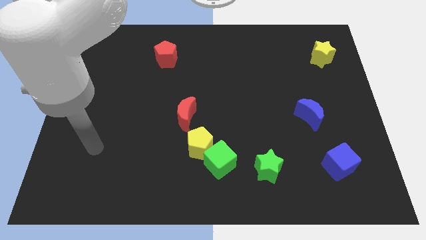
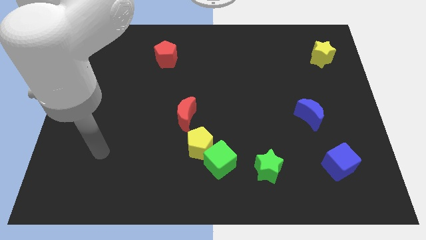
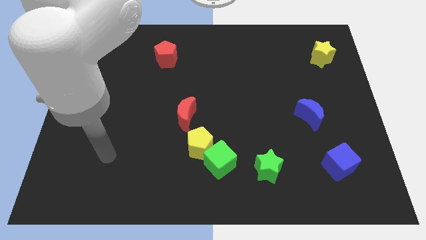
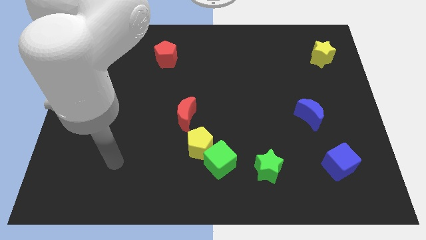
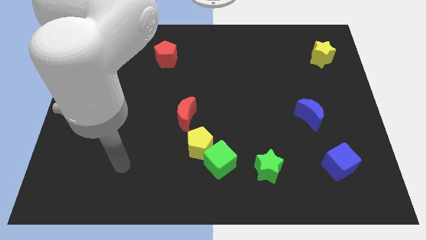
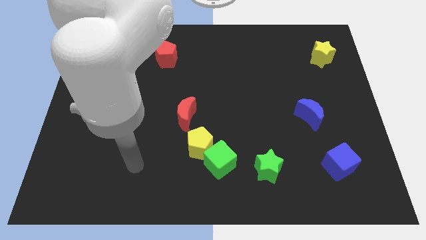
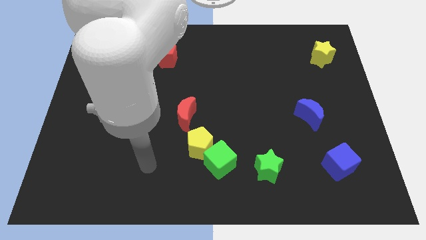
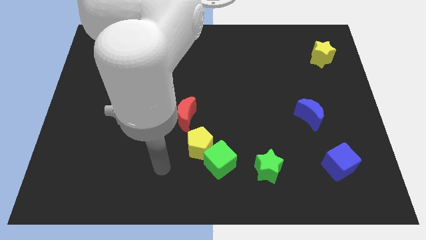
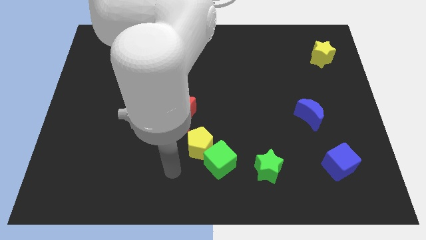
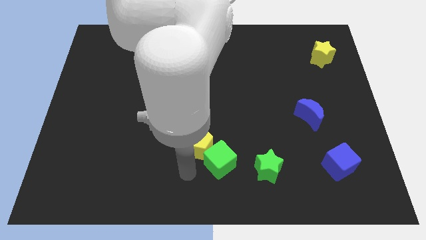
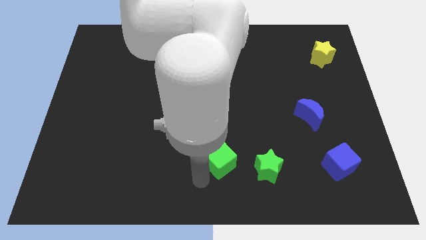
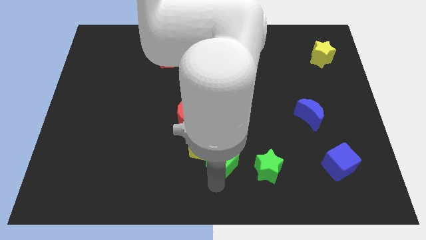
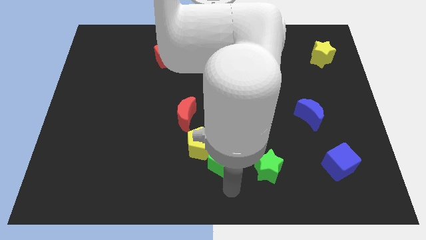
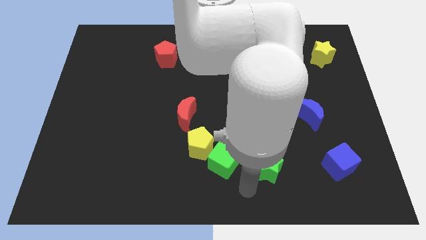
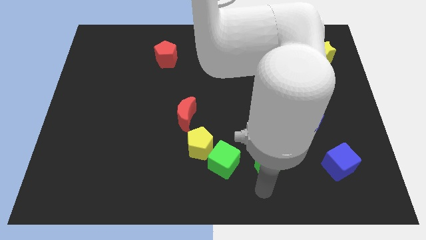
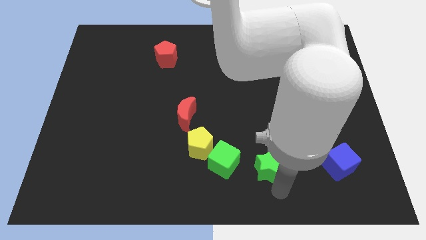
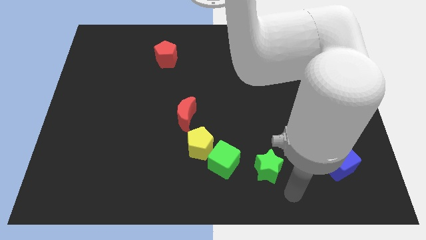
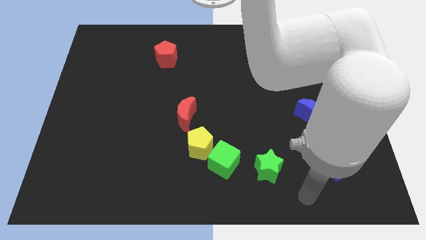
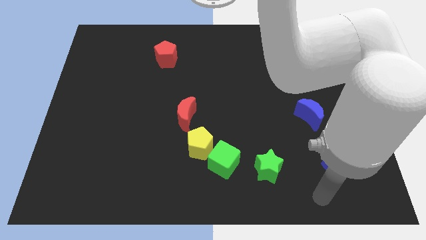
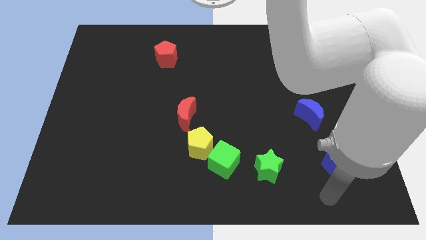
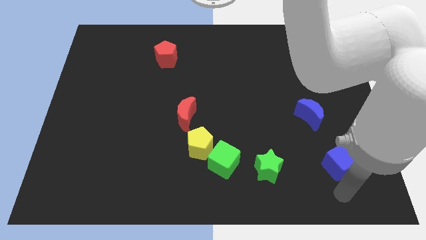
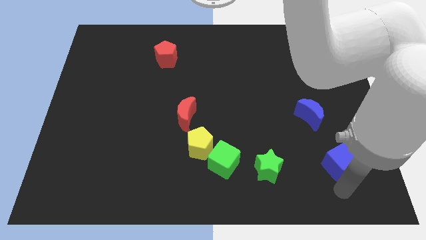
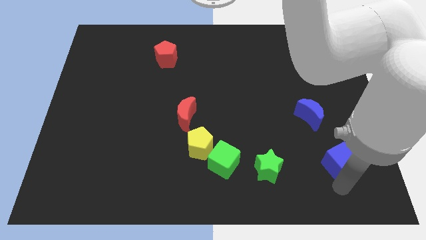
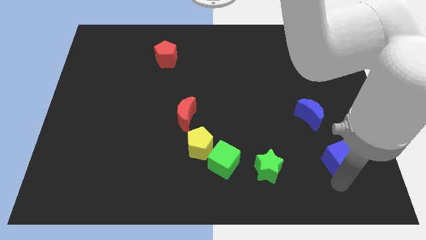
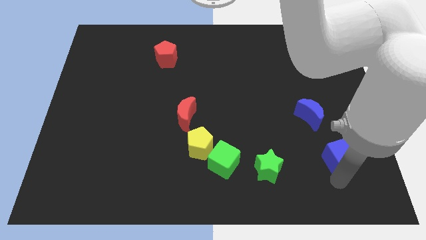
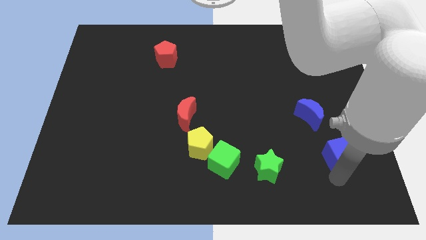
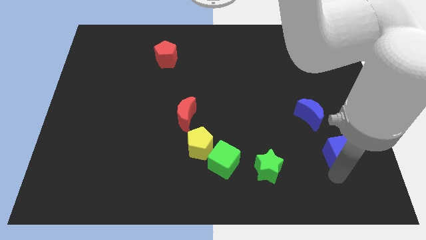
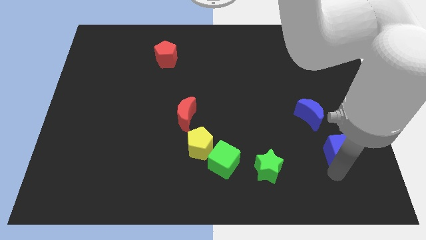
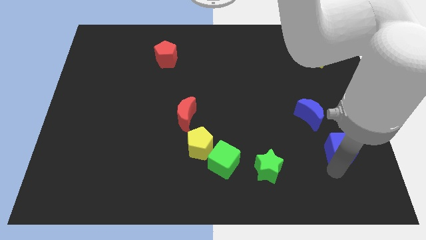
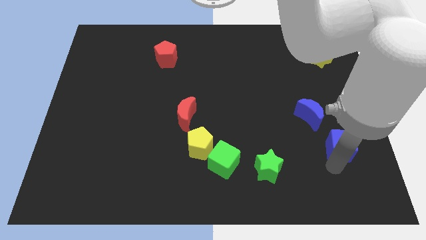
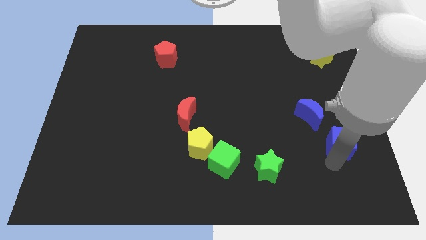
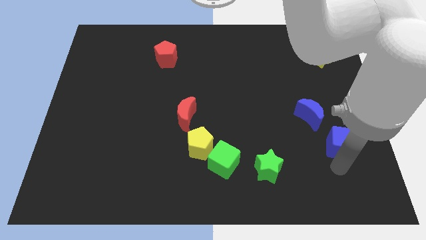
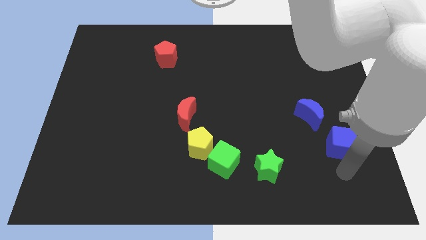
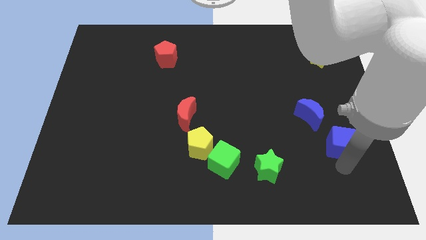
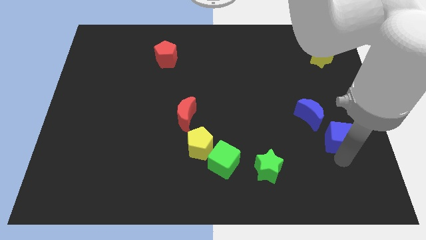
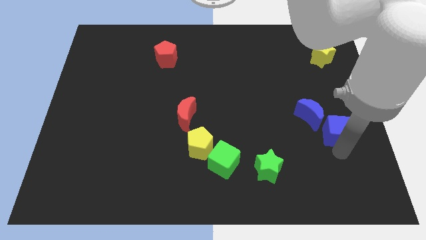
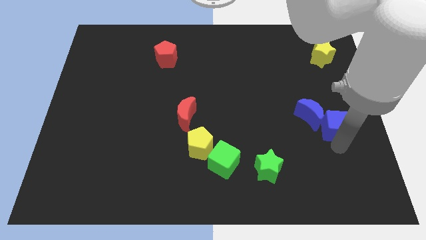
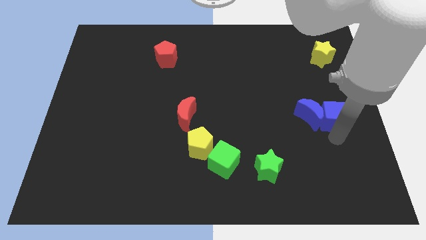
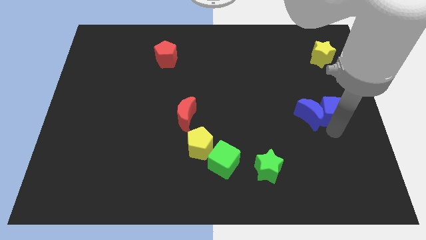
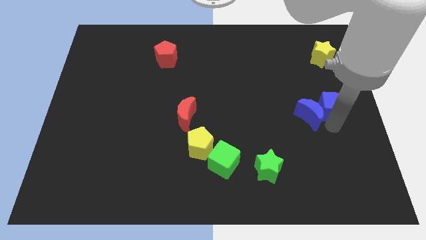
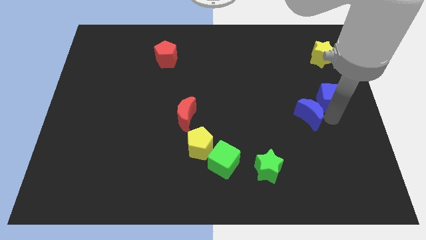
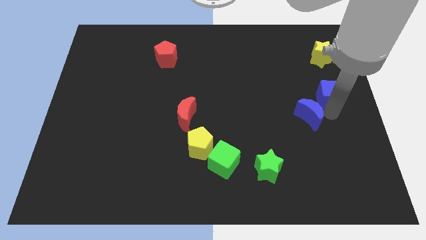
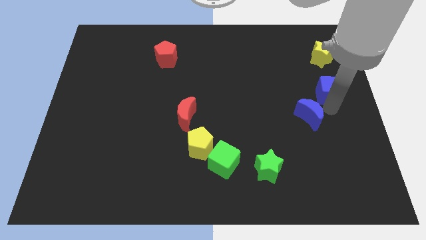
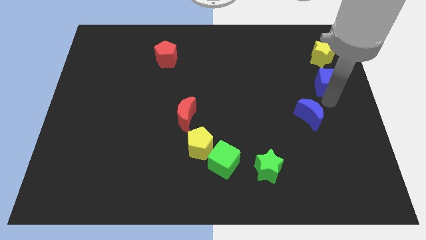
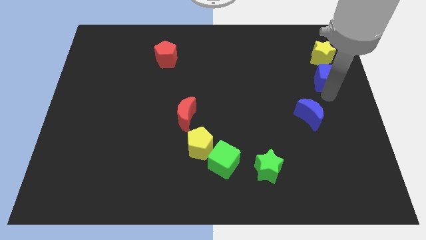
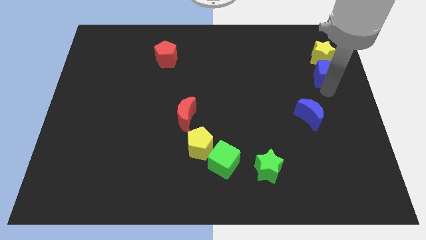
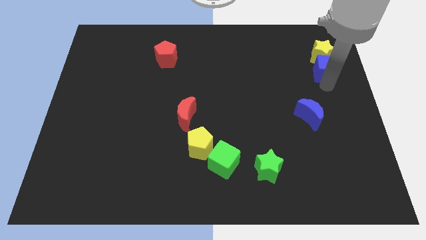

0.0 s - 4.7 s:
put the blue cube next to the yellow star

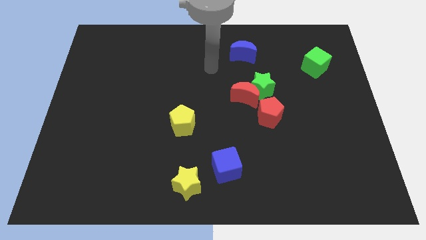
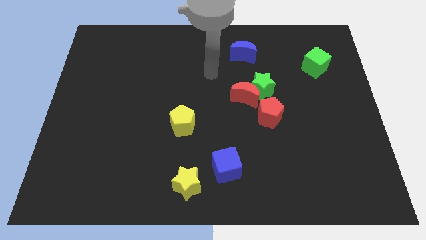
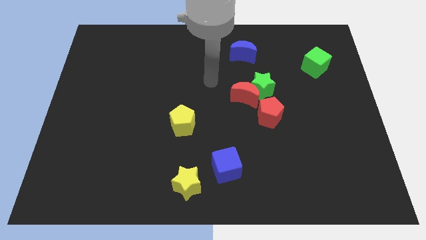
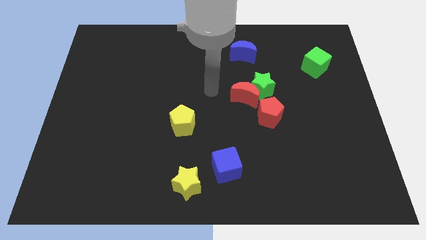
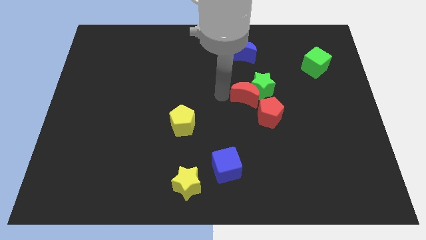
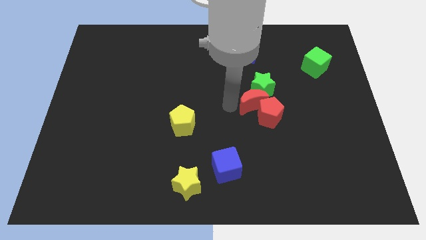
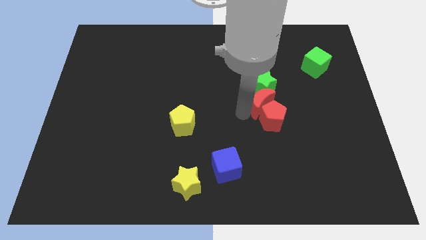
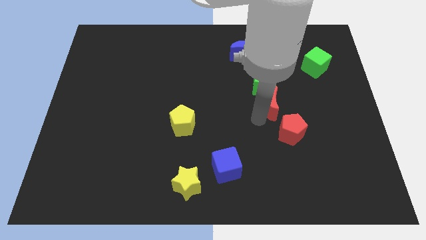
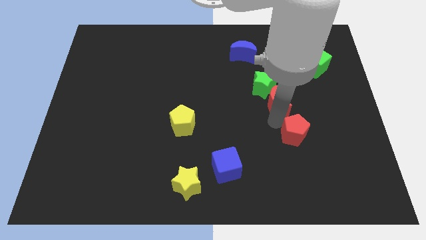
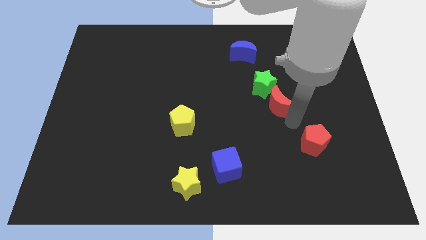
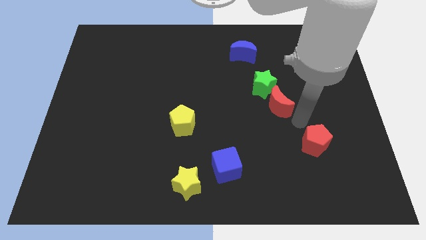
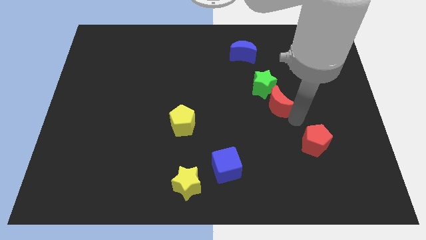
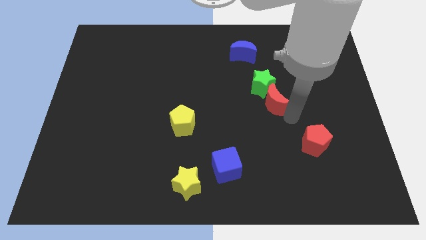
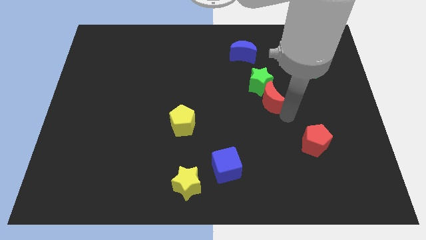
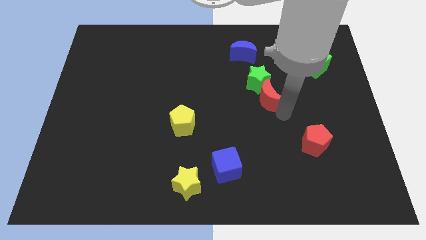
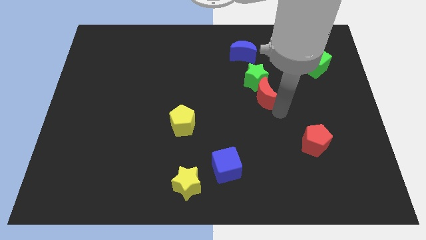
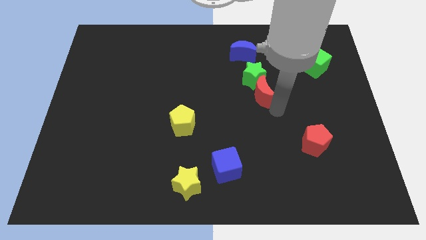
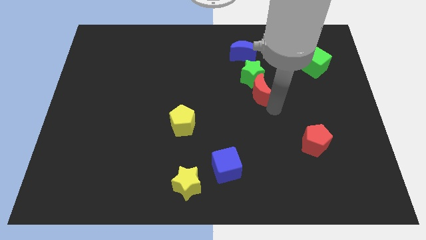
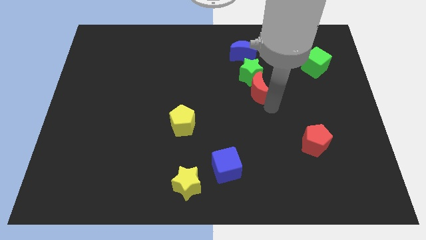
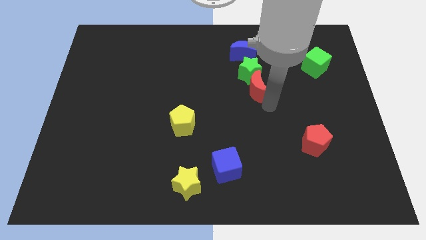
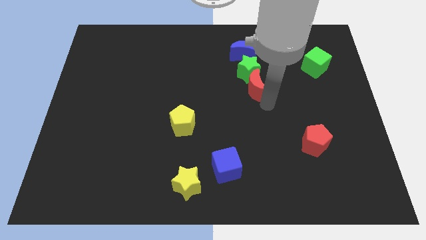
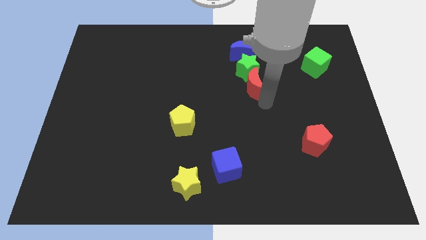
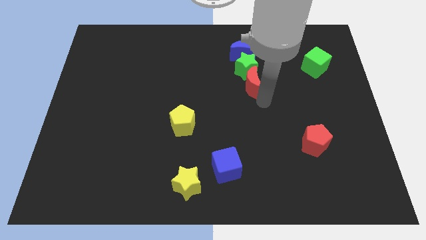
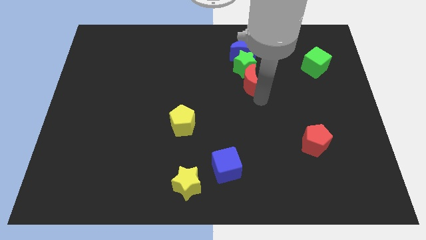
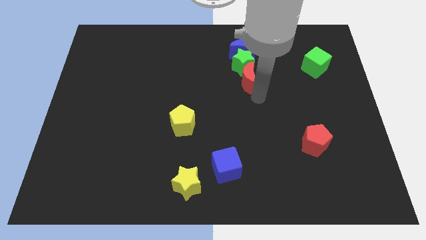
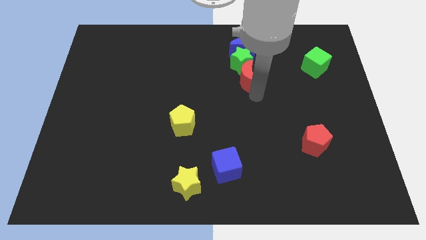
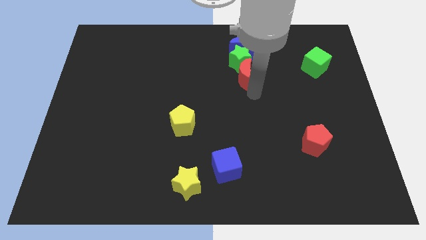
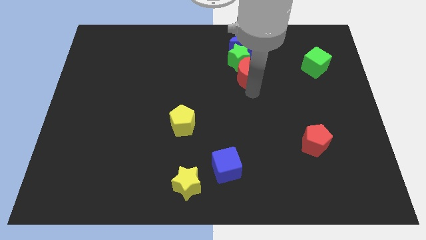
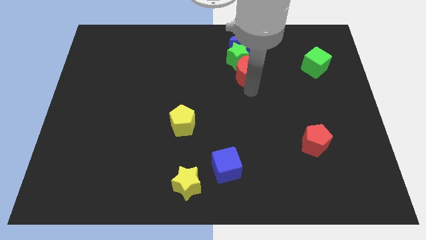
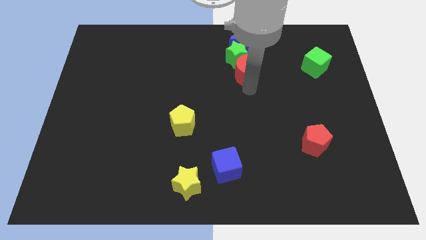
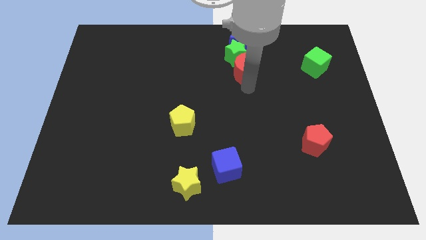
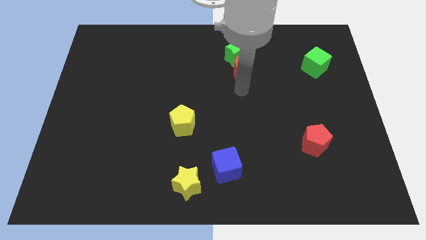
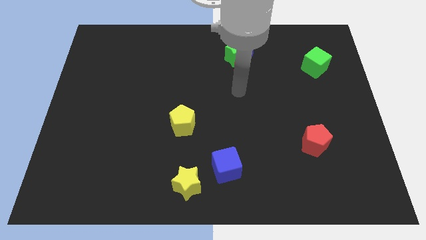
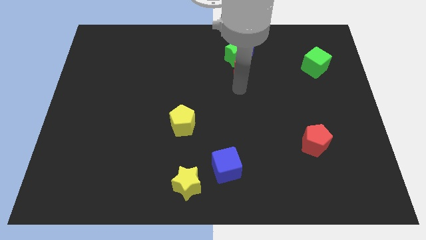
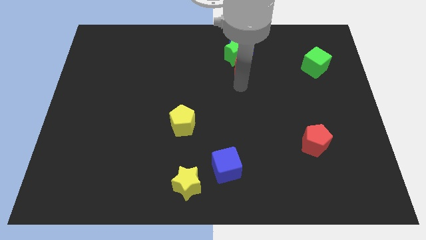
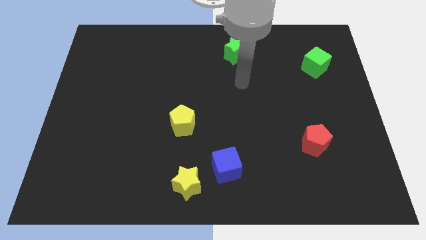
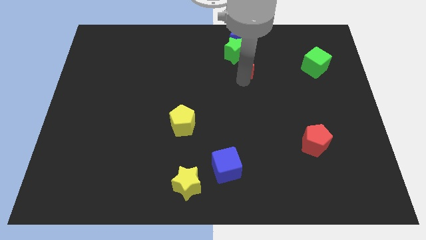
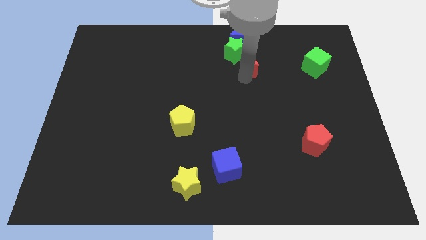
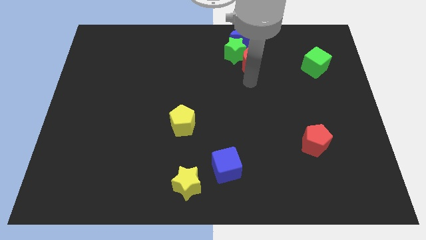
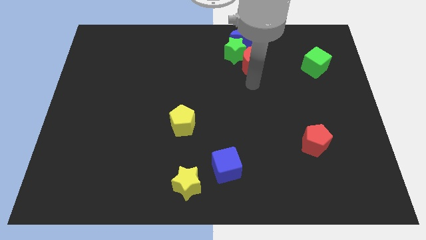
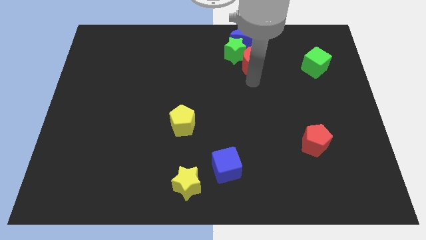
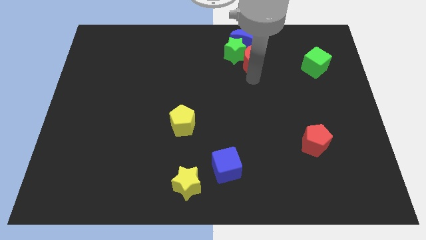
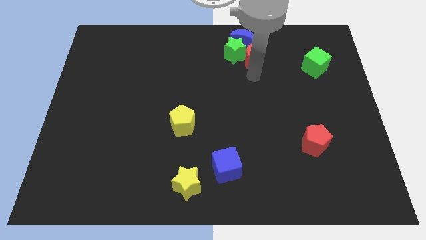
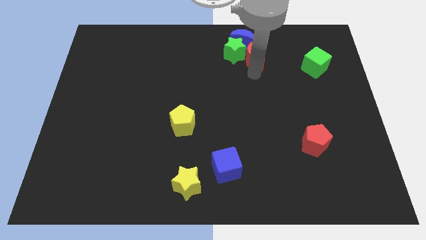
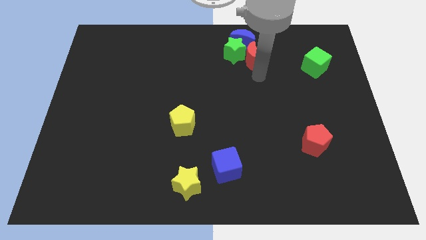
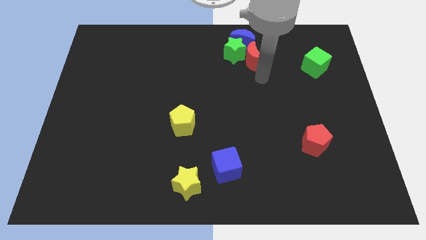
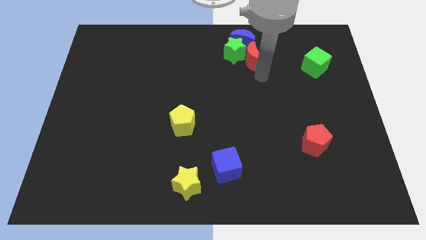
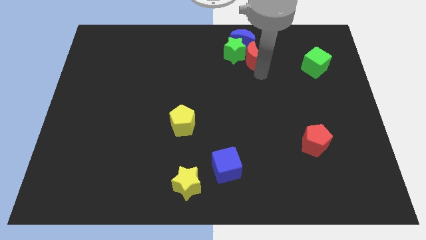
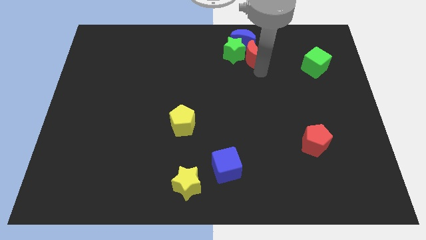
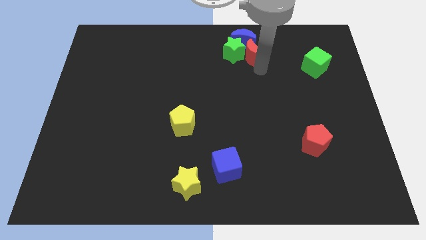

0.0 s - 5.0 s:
push the red moon next to the blue moon
